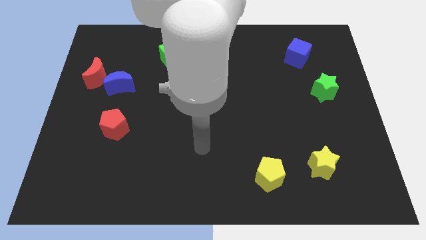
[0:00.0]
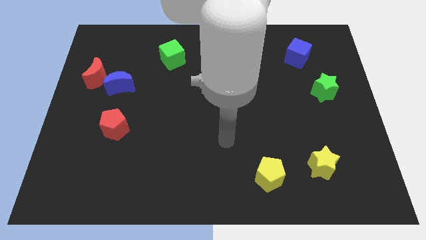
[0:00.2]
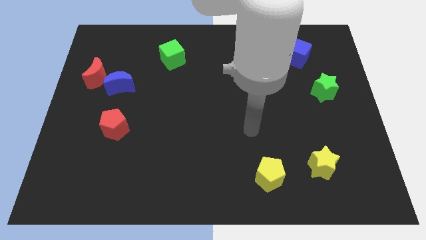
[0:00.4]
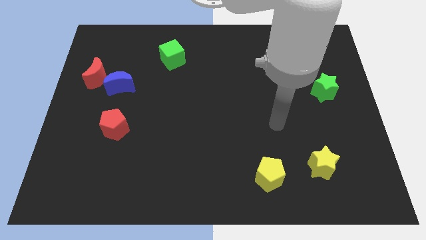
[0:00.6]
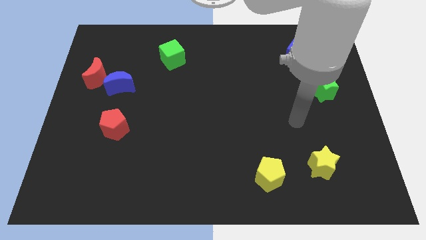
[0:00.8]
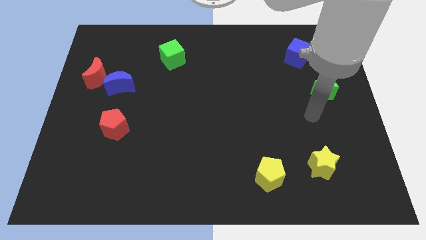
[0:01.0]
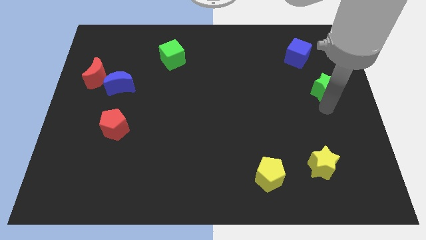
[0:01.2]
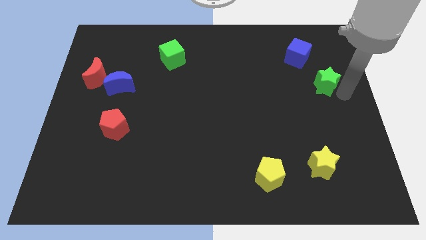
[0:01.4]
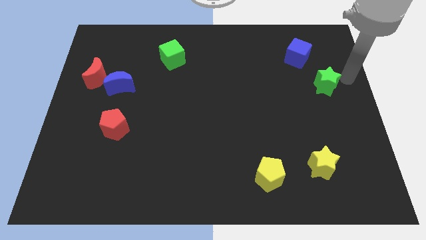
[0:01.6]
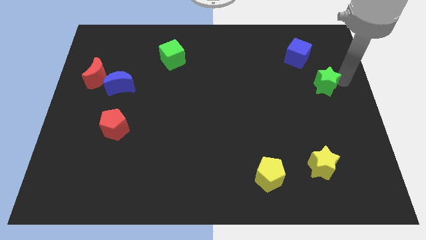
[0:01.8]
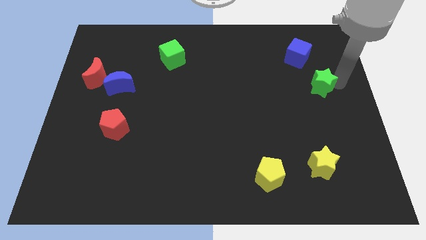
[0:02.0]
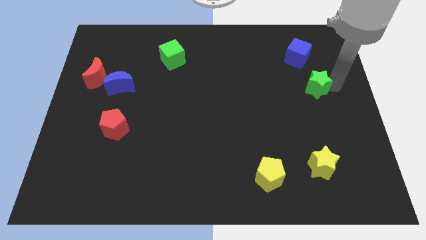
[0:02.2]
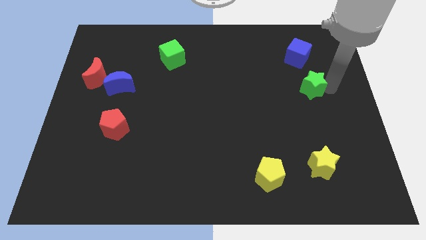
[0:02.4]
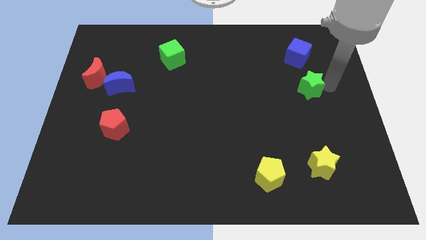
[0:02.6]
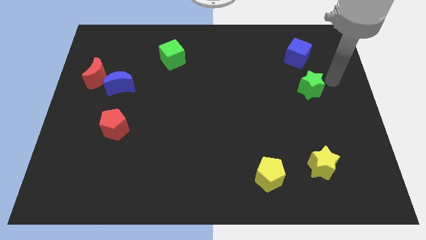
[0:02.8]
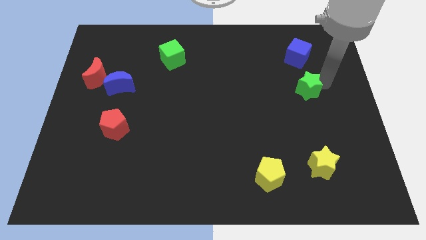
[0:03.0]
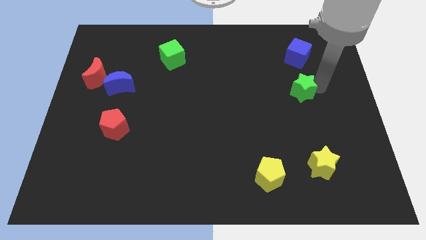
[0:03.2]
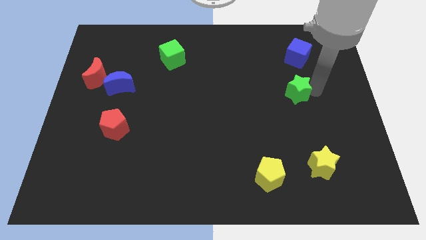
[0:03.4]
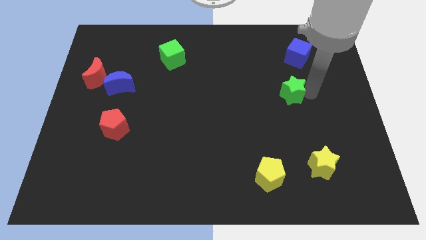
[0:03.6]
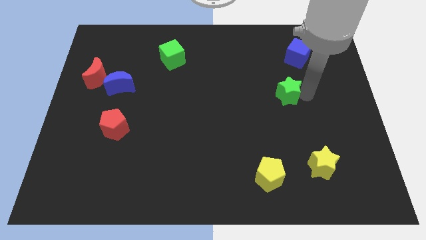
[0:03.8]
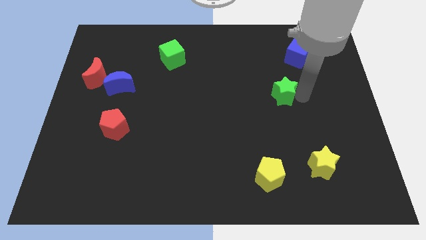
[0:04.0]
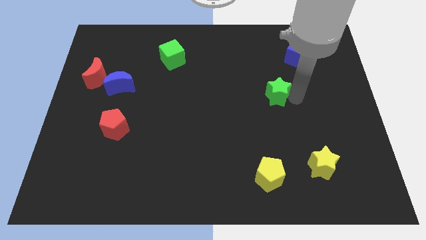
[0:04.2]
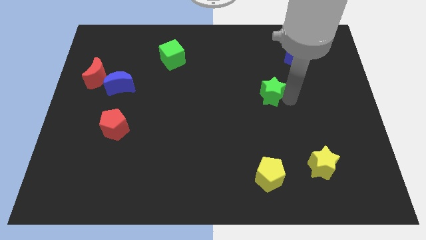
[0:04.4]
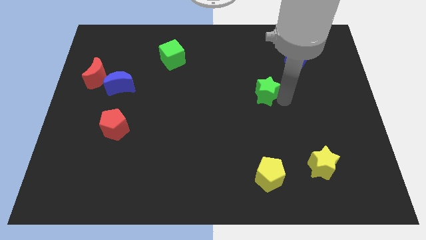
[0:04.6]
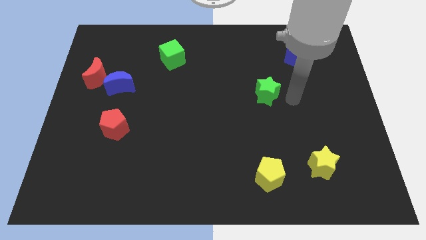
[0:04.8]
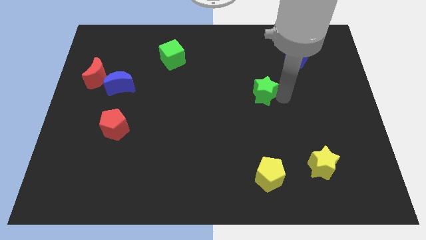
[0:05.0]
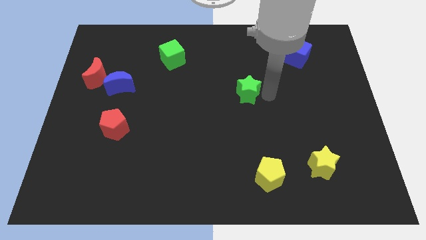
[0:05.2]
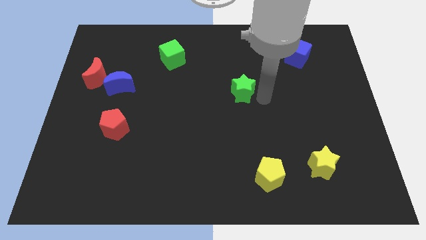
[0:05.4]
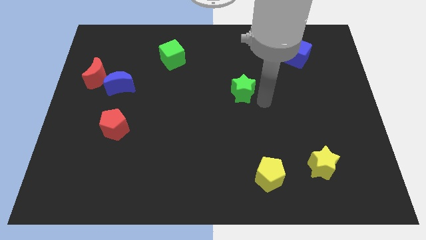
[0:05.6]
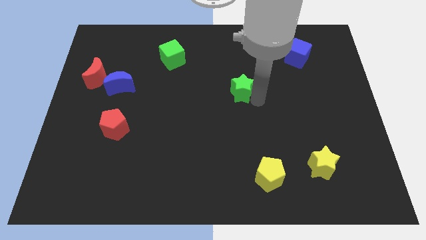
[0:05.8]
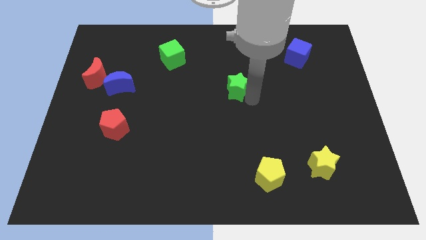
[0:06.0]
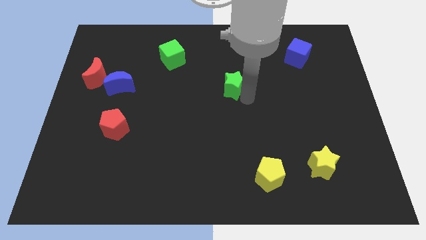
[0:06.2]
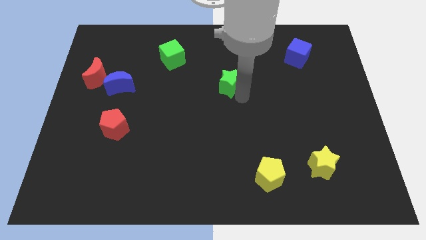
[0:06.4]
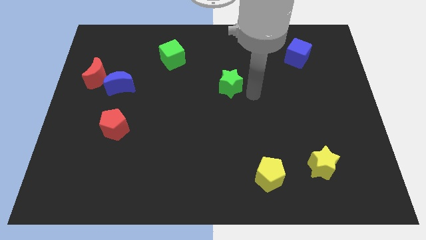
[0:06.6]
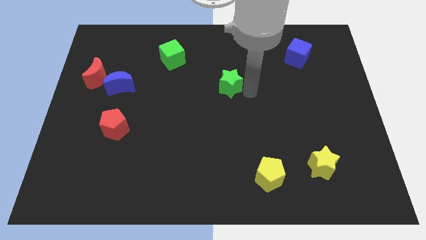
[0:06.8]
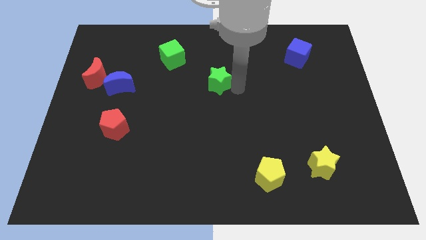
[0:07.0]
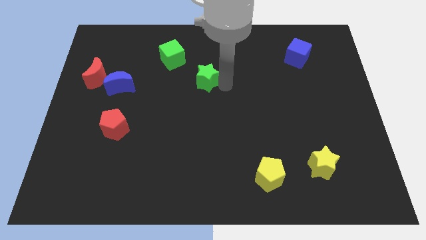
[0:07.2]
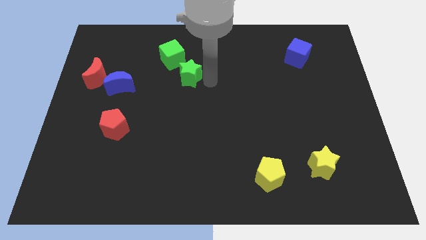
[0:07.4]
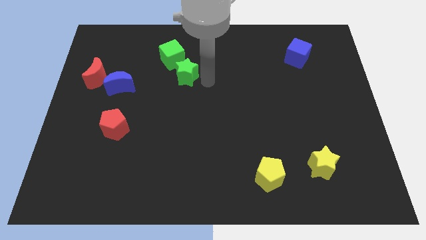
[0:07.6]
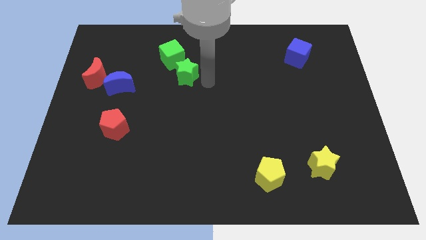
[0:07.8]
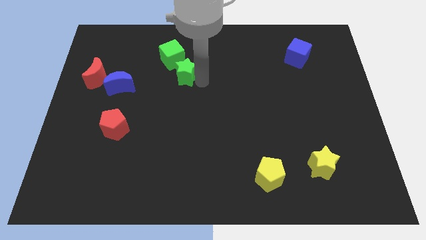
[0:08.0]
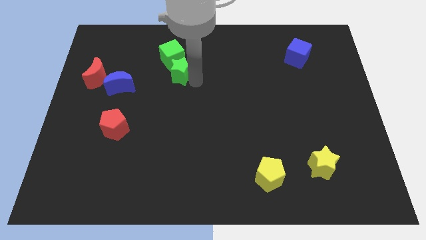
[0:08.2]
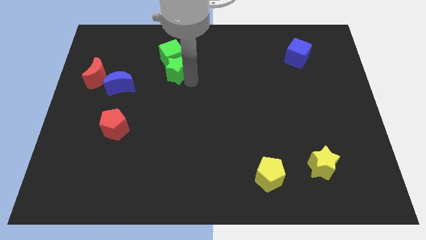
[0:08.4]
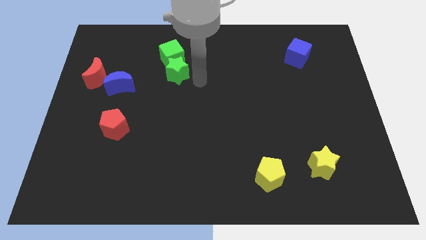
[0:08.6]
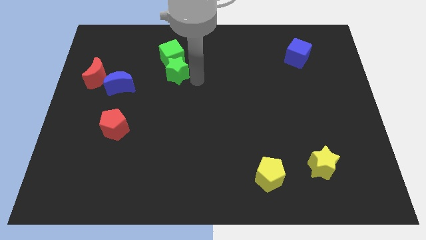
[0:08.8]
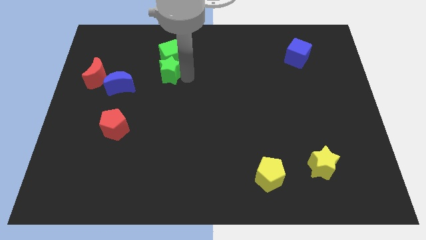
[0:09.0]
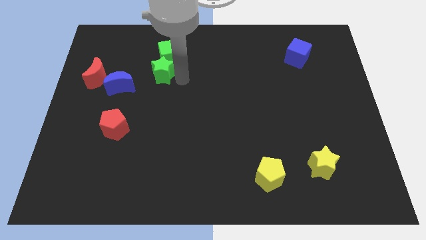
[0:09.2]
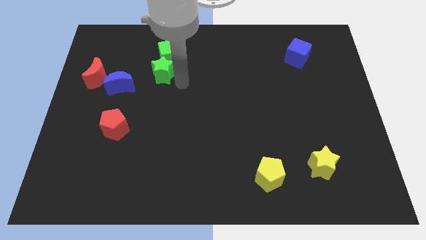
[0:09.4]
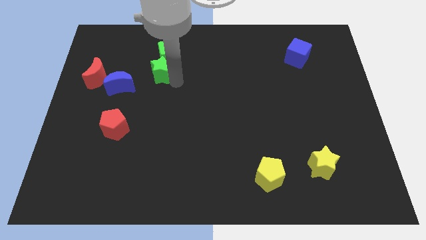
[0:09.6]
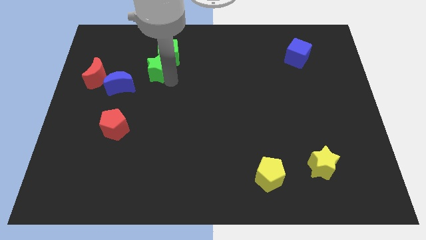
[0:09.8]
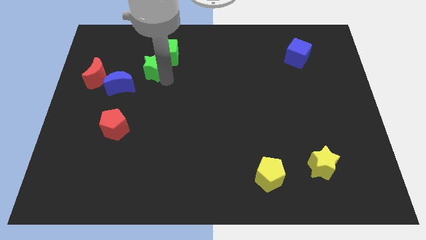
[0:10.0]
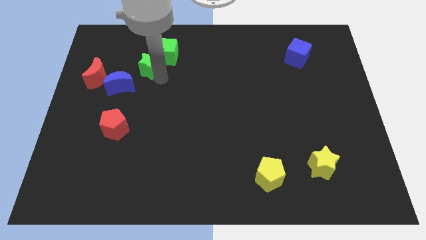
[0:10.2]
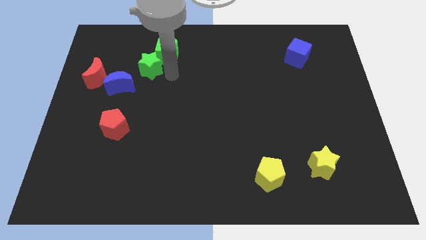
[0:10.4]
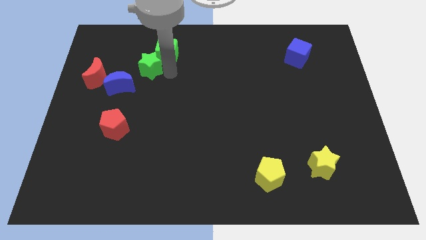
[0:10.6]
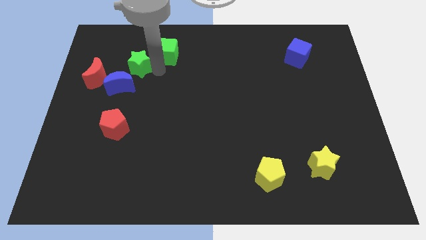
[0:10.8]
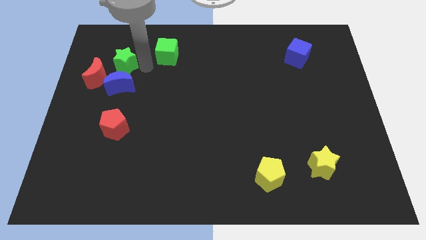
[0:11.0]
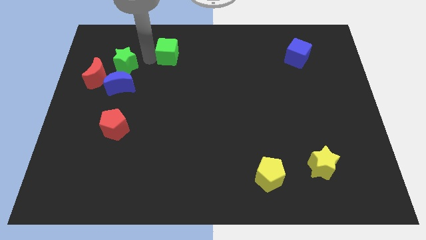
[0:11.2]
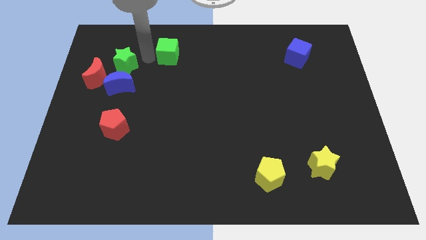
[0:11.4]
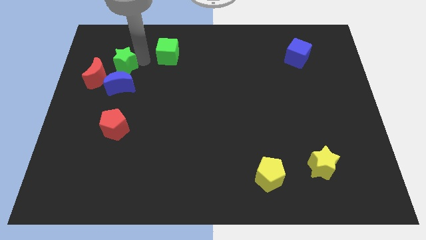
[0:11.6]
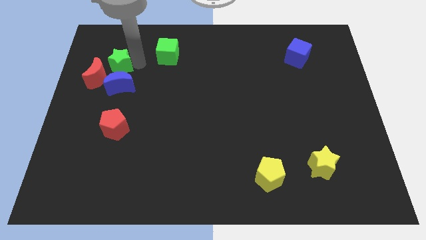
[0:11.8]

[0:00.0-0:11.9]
put the green star diagonally up and to the left of the blue moon

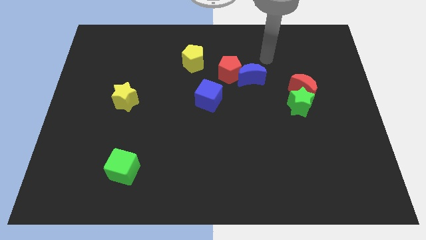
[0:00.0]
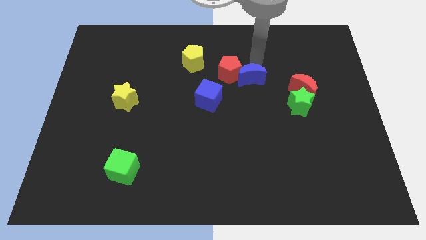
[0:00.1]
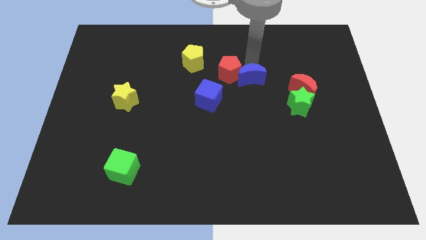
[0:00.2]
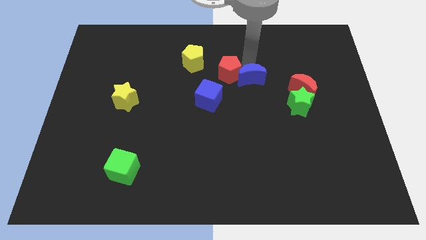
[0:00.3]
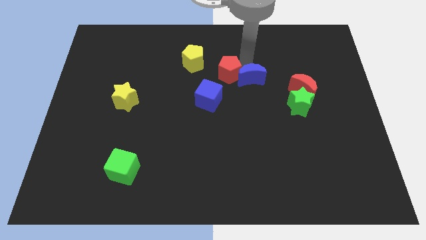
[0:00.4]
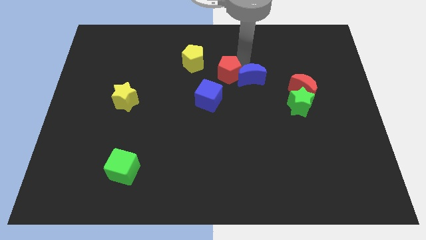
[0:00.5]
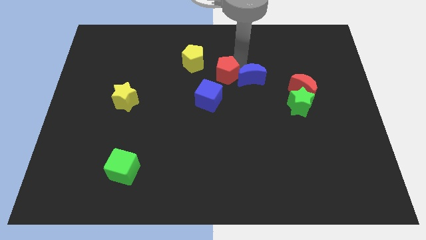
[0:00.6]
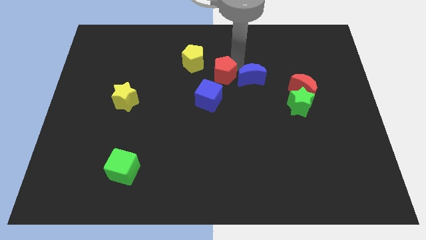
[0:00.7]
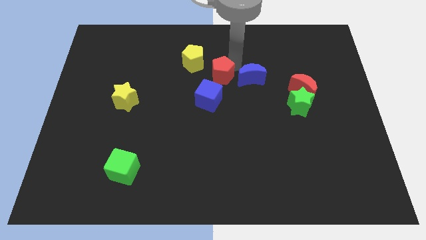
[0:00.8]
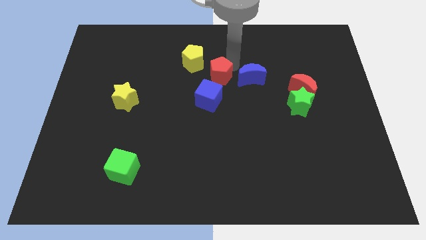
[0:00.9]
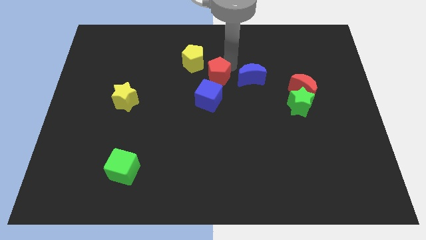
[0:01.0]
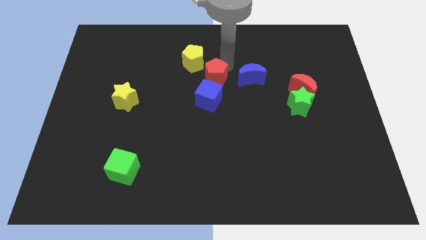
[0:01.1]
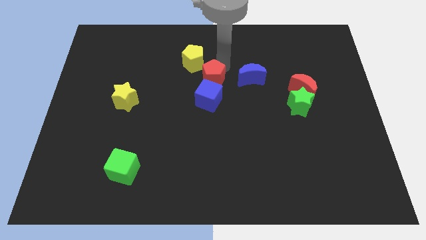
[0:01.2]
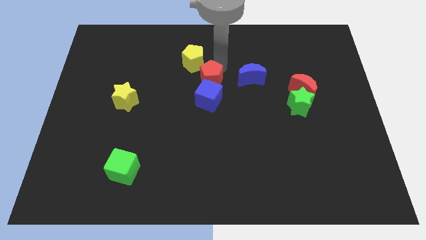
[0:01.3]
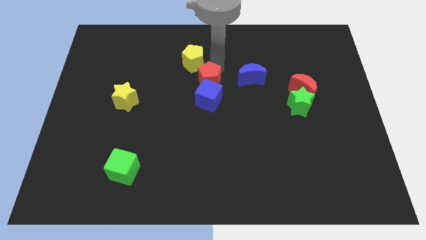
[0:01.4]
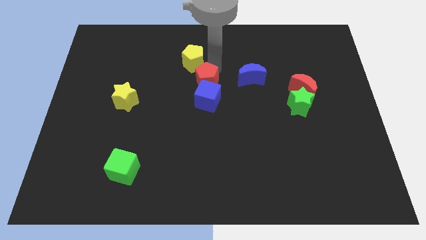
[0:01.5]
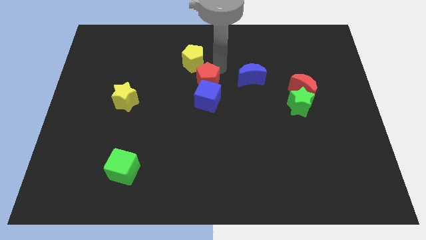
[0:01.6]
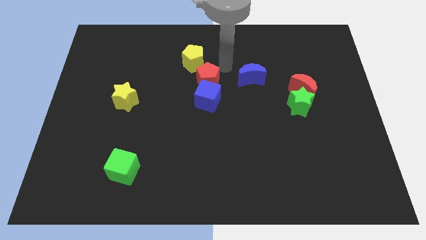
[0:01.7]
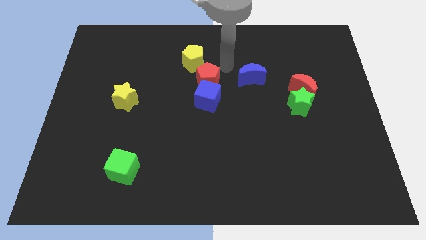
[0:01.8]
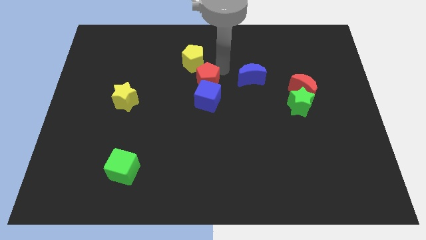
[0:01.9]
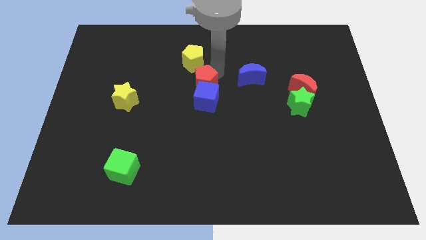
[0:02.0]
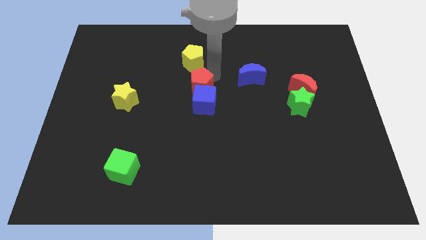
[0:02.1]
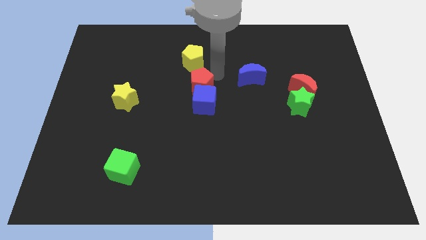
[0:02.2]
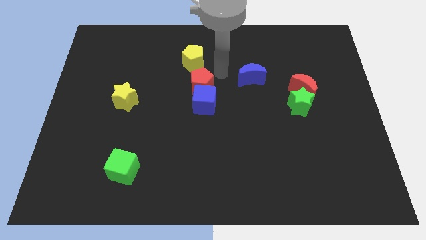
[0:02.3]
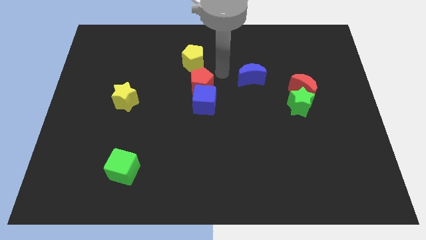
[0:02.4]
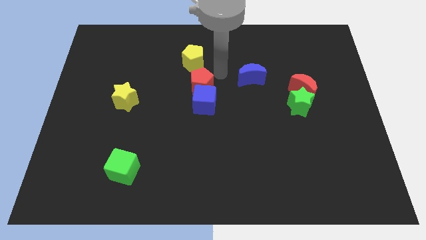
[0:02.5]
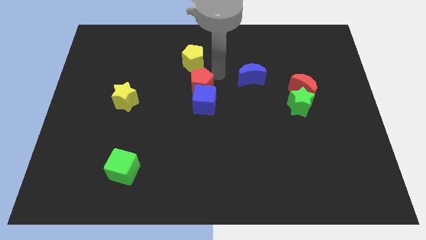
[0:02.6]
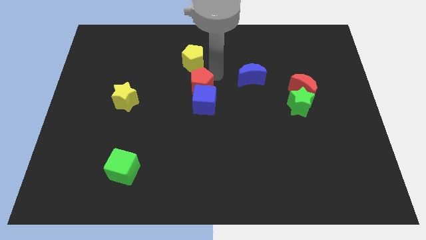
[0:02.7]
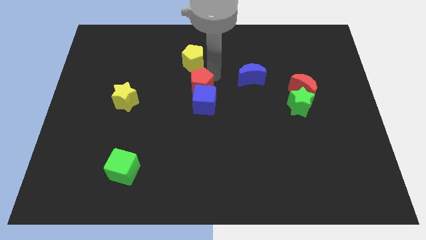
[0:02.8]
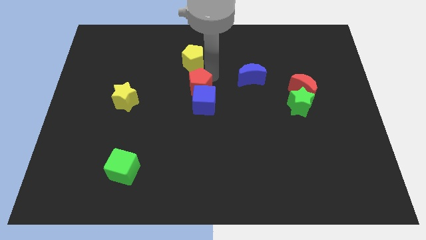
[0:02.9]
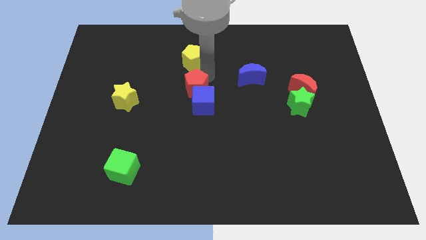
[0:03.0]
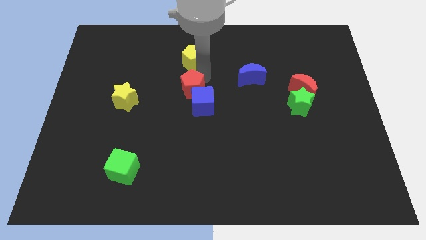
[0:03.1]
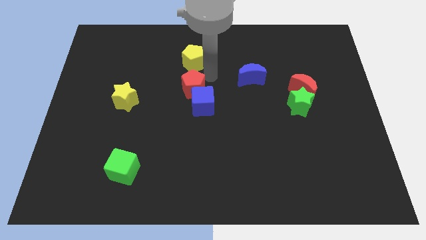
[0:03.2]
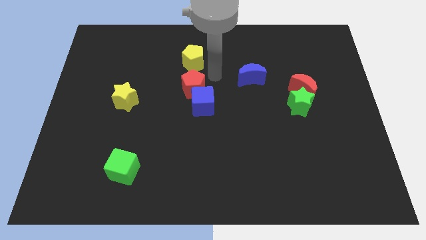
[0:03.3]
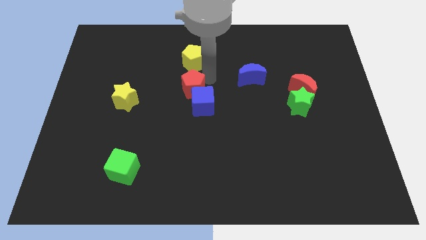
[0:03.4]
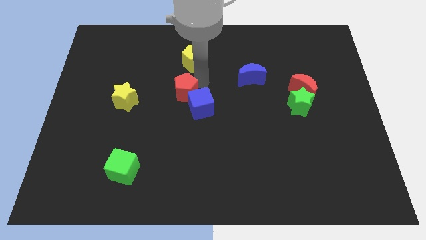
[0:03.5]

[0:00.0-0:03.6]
put the red pentagon just left of the blue cube
